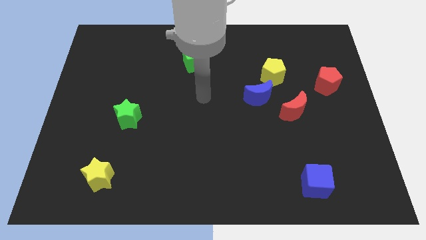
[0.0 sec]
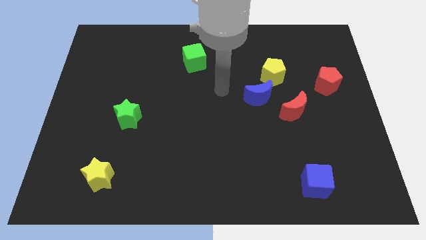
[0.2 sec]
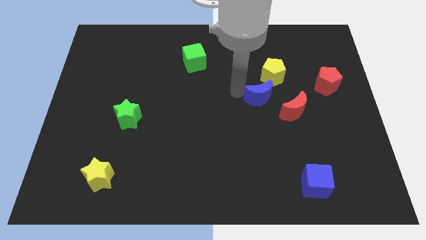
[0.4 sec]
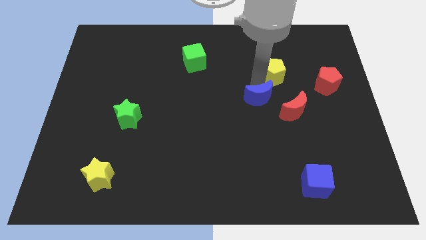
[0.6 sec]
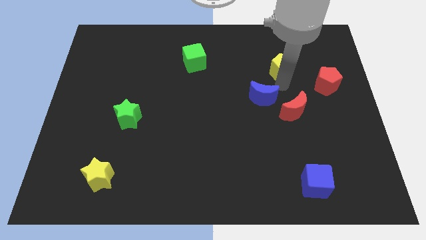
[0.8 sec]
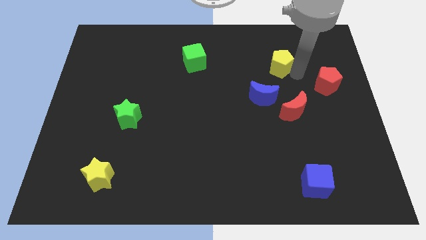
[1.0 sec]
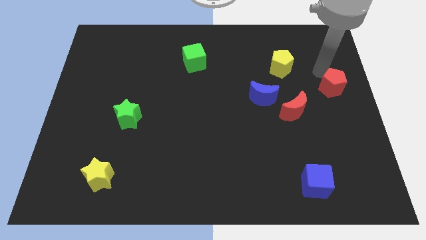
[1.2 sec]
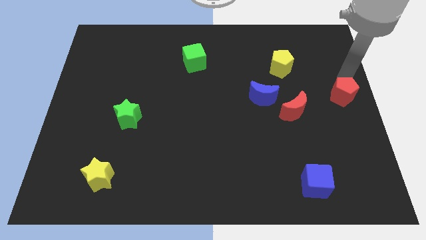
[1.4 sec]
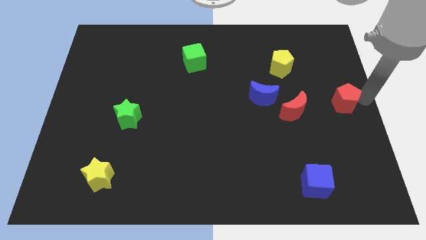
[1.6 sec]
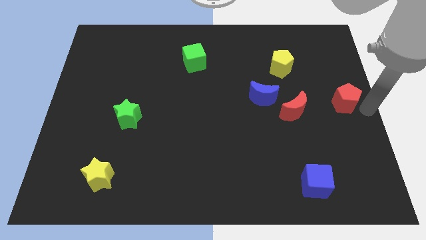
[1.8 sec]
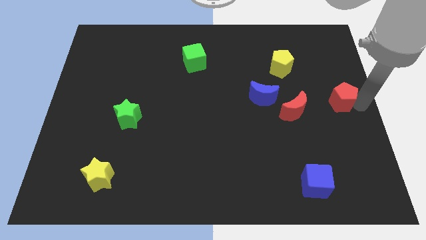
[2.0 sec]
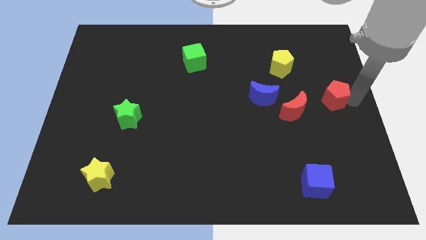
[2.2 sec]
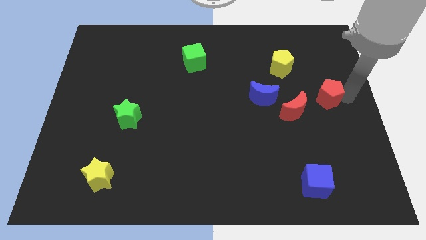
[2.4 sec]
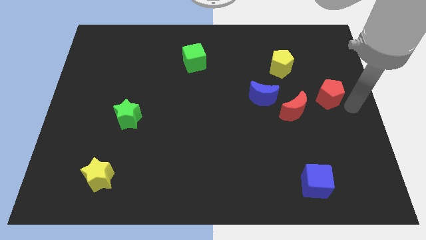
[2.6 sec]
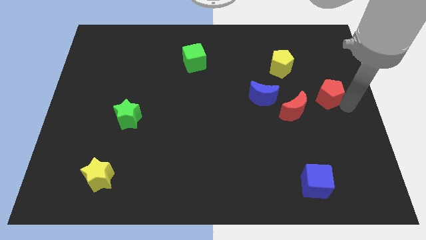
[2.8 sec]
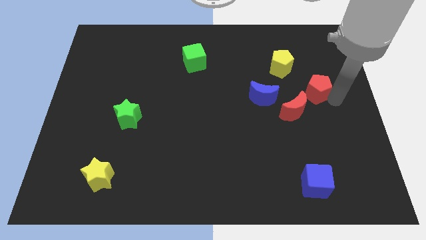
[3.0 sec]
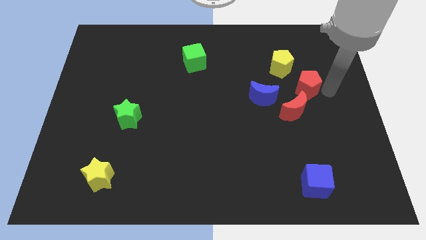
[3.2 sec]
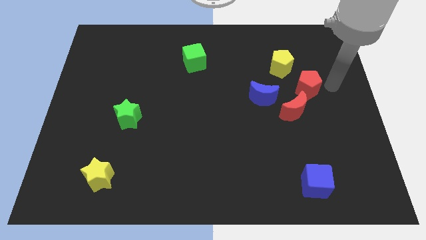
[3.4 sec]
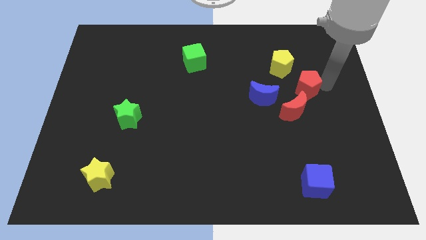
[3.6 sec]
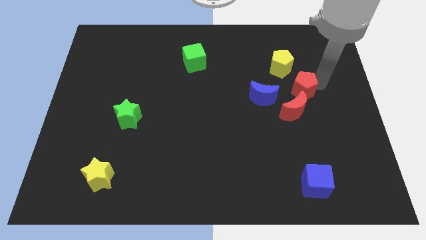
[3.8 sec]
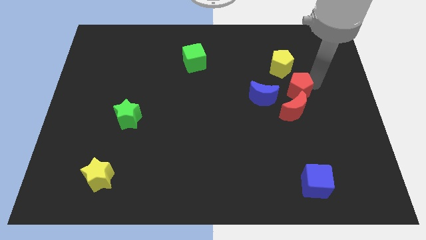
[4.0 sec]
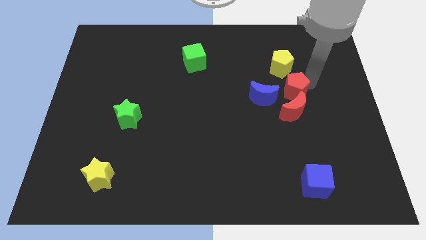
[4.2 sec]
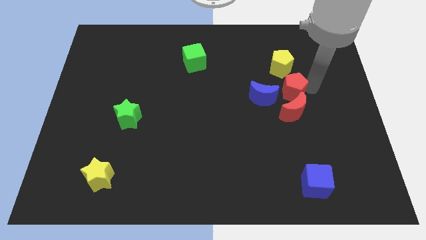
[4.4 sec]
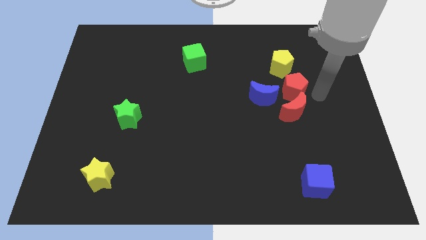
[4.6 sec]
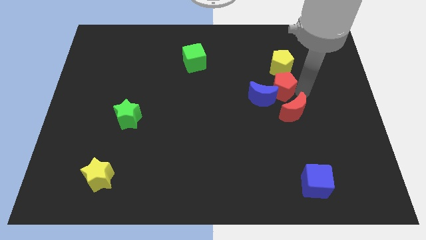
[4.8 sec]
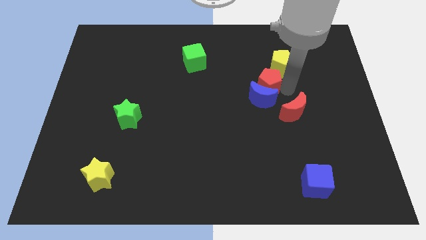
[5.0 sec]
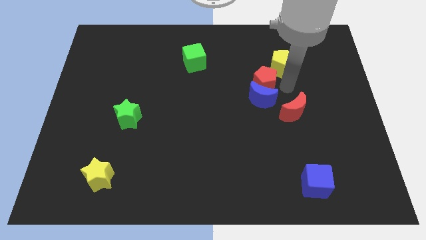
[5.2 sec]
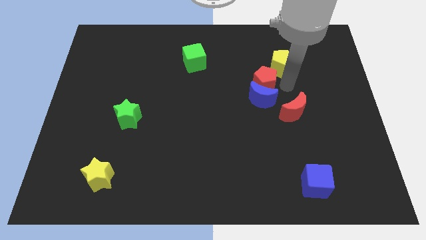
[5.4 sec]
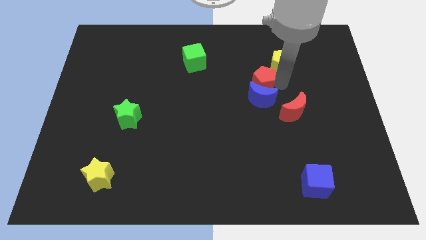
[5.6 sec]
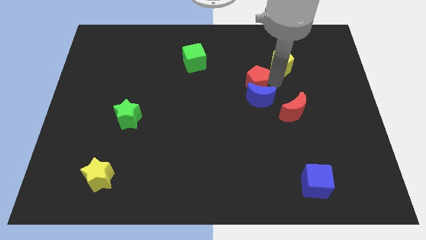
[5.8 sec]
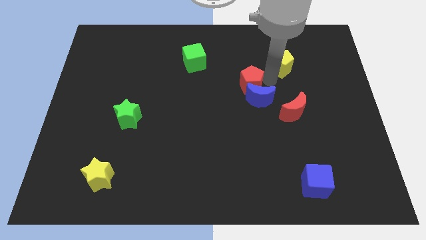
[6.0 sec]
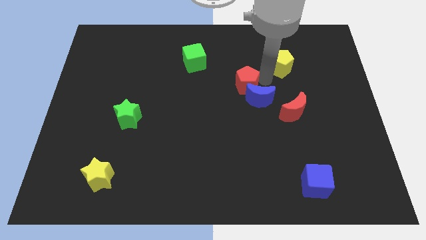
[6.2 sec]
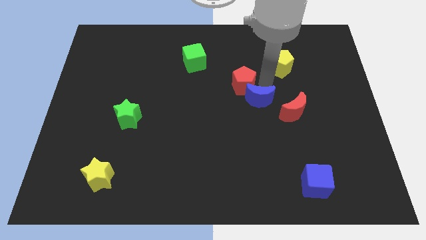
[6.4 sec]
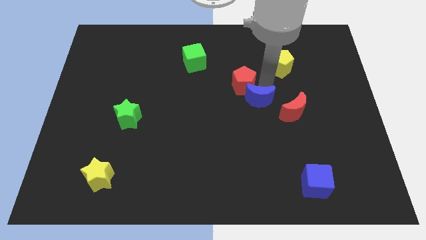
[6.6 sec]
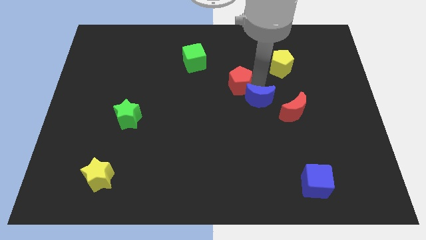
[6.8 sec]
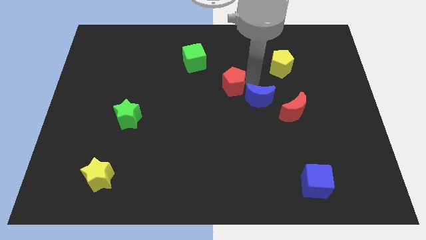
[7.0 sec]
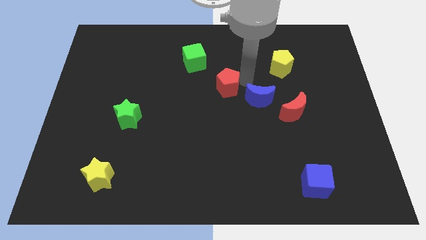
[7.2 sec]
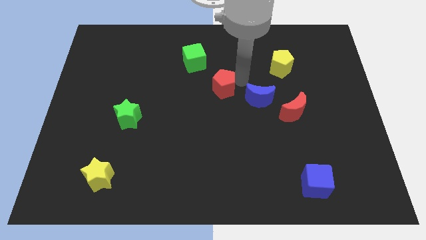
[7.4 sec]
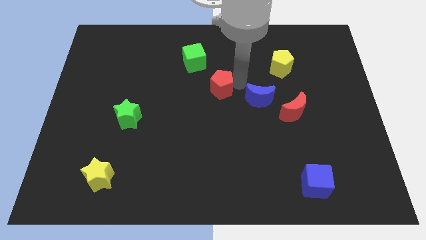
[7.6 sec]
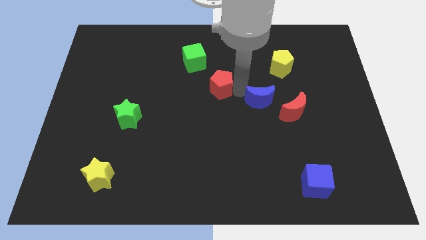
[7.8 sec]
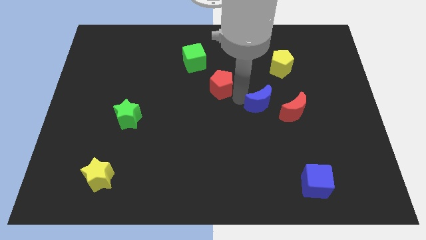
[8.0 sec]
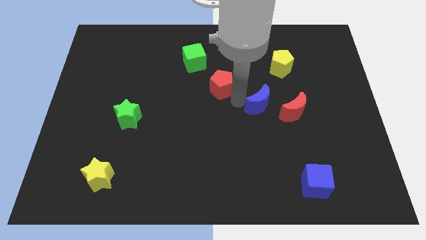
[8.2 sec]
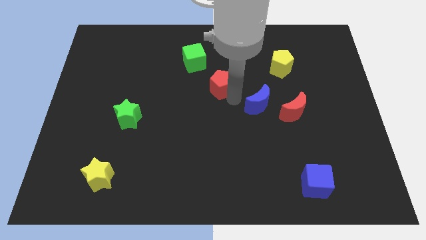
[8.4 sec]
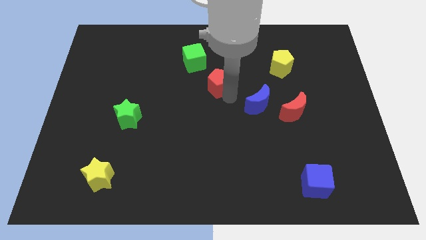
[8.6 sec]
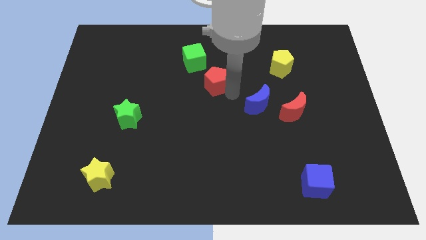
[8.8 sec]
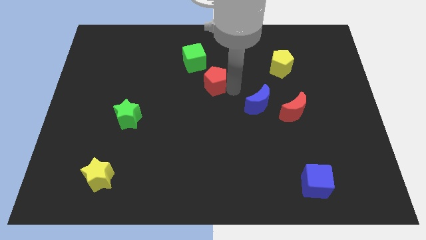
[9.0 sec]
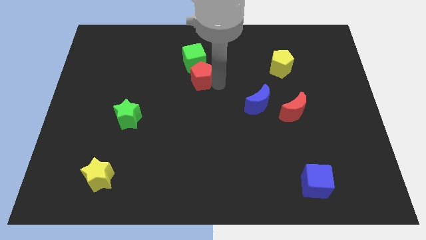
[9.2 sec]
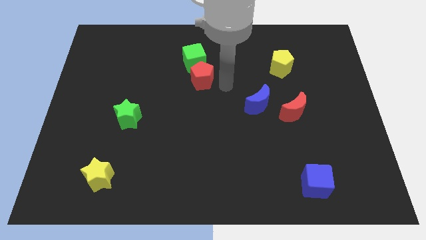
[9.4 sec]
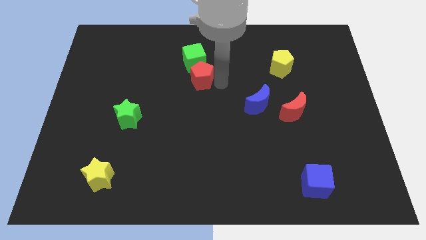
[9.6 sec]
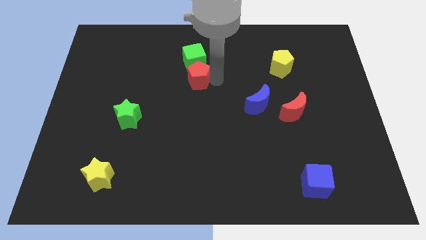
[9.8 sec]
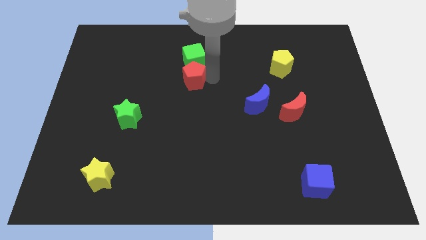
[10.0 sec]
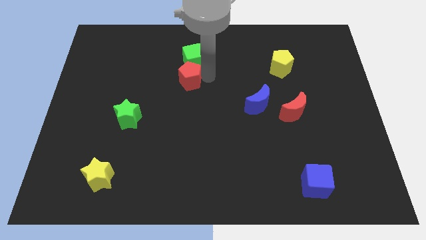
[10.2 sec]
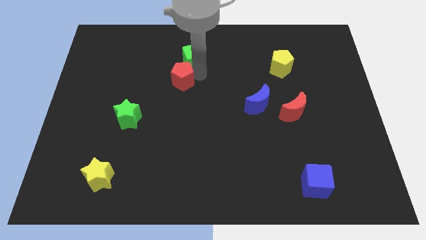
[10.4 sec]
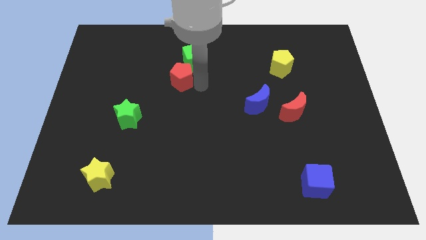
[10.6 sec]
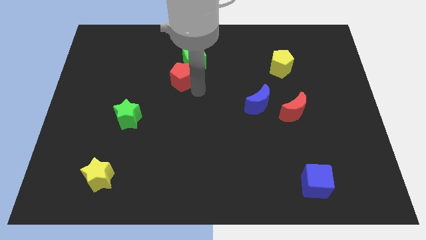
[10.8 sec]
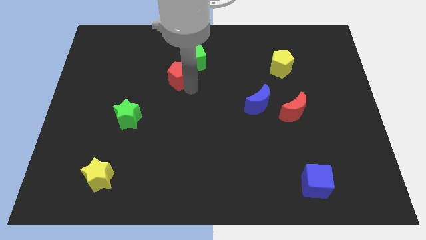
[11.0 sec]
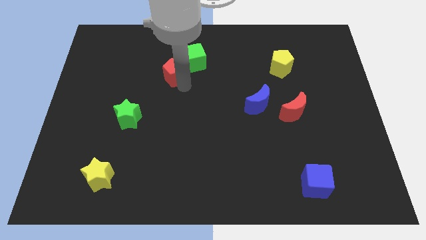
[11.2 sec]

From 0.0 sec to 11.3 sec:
put the red pentagon to the left side of the green cube
